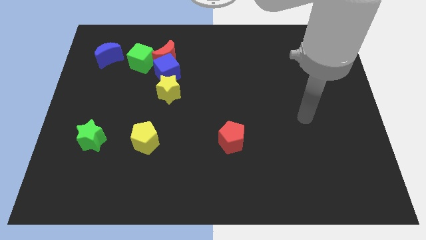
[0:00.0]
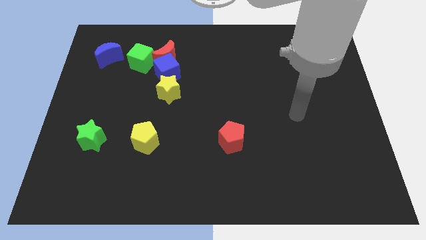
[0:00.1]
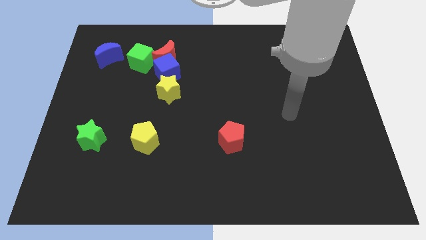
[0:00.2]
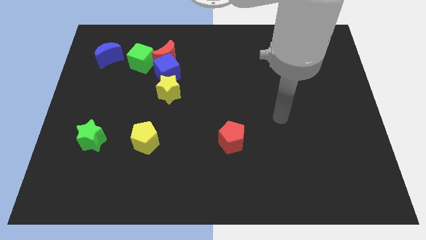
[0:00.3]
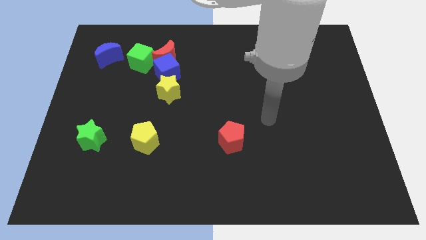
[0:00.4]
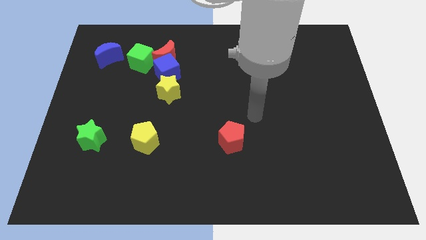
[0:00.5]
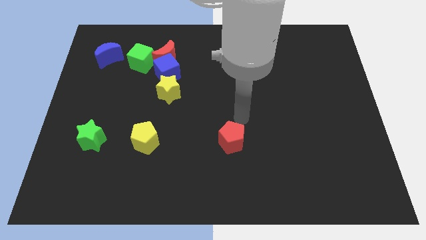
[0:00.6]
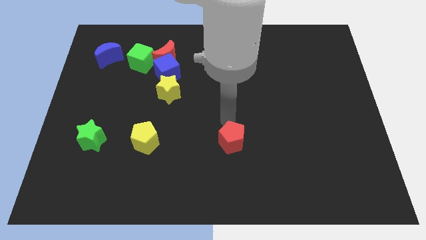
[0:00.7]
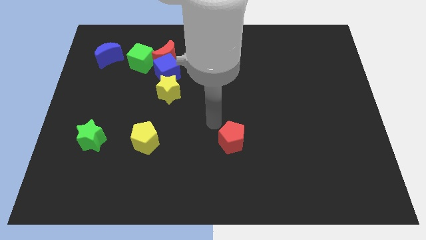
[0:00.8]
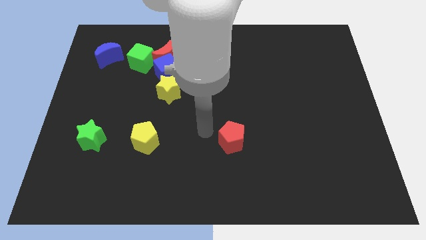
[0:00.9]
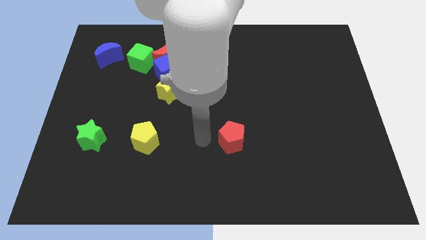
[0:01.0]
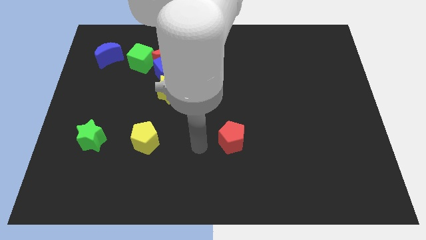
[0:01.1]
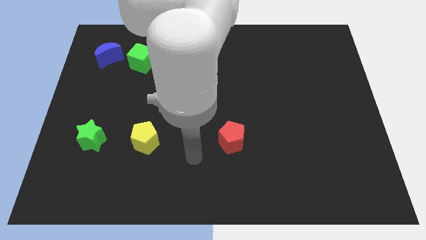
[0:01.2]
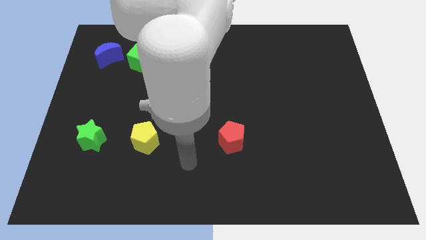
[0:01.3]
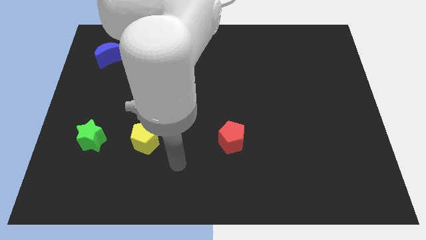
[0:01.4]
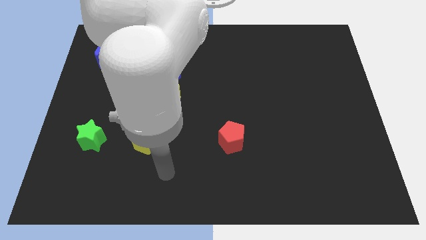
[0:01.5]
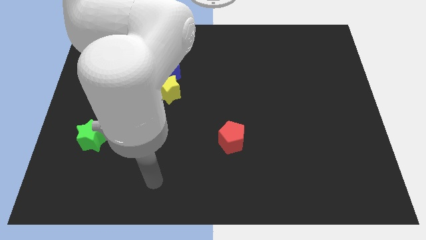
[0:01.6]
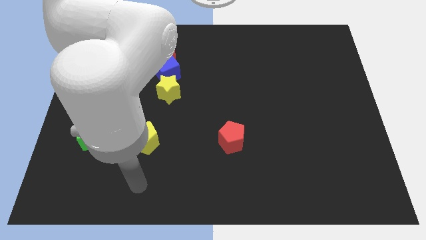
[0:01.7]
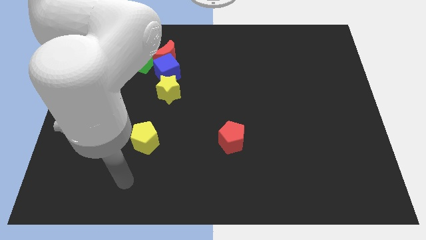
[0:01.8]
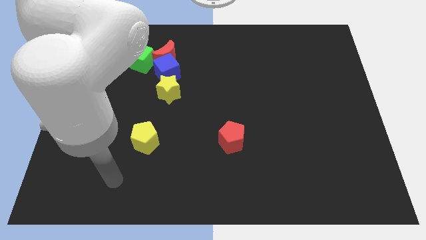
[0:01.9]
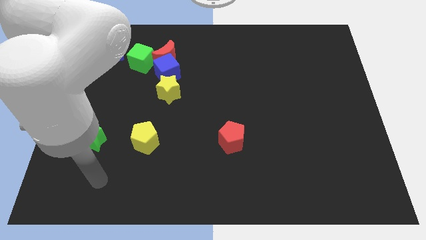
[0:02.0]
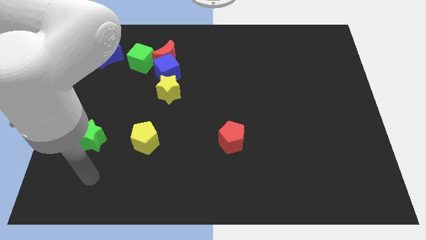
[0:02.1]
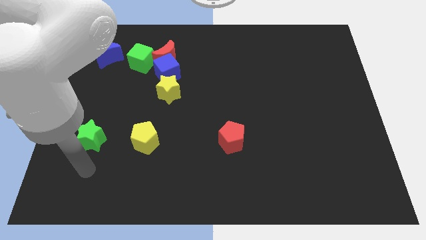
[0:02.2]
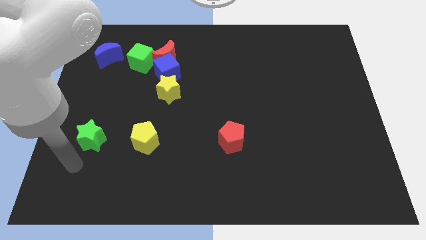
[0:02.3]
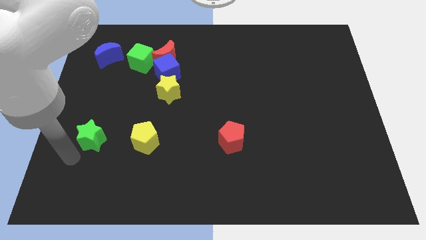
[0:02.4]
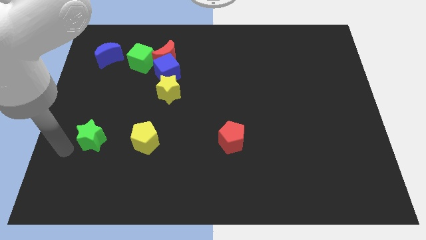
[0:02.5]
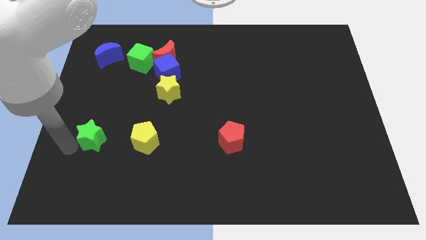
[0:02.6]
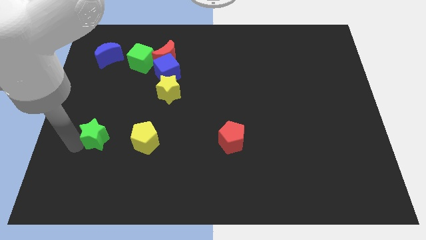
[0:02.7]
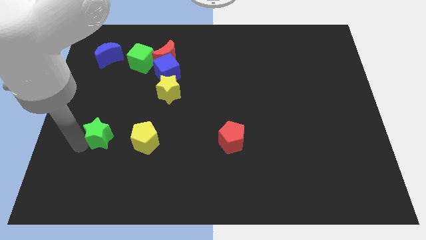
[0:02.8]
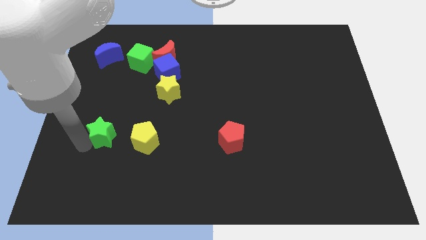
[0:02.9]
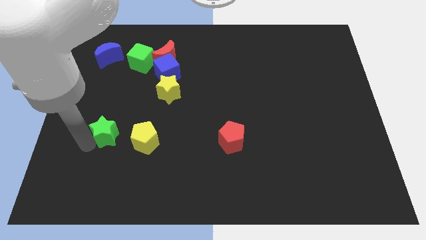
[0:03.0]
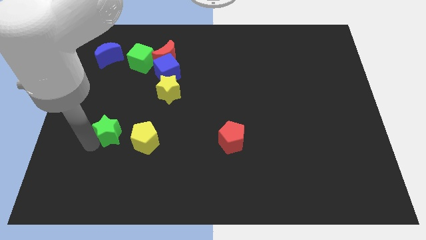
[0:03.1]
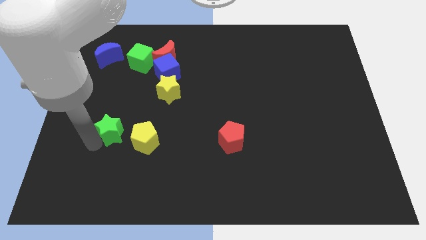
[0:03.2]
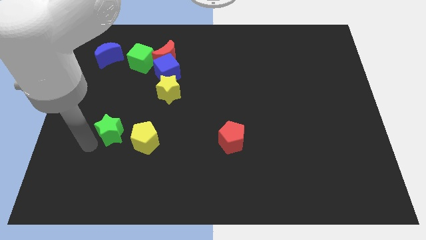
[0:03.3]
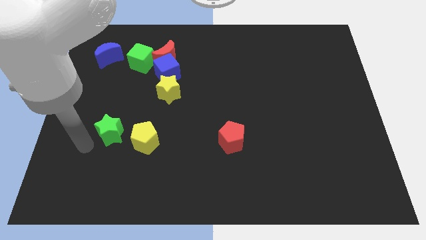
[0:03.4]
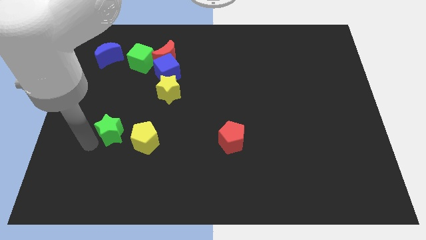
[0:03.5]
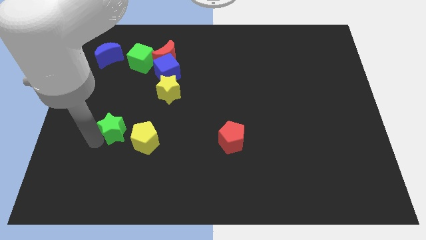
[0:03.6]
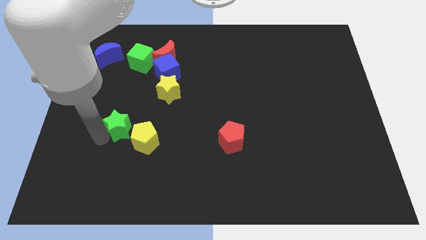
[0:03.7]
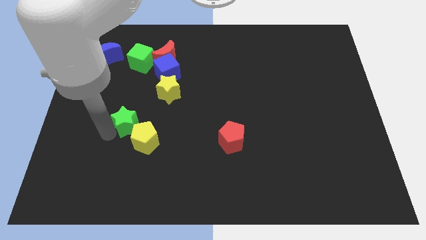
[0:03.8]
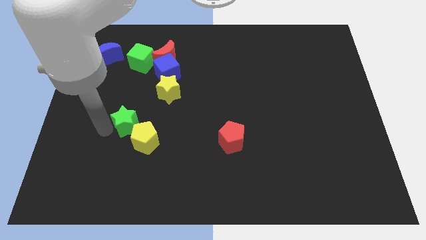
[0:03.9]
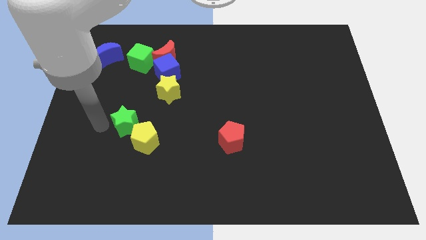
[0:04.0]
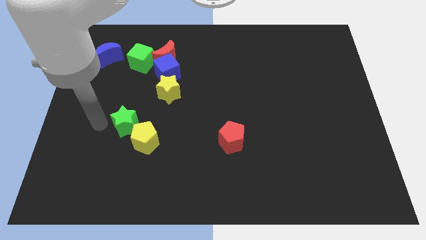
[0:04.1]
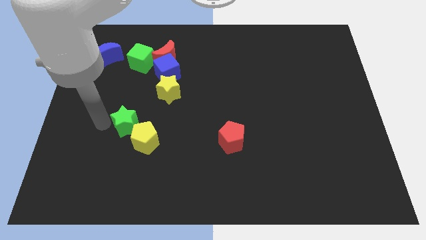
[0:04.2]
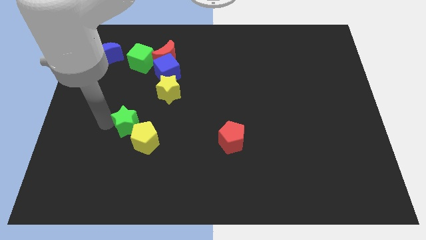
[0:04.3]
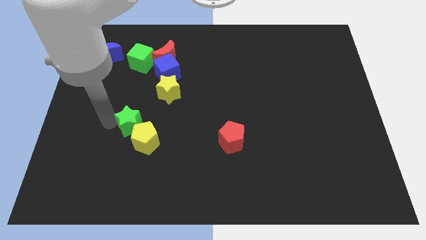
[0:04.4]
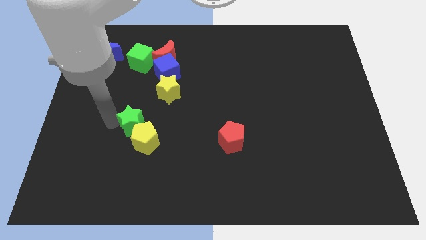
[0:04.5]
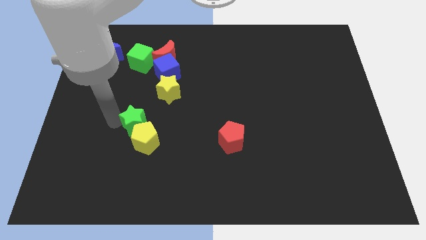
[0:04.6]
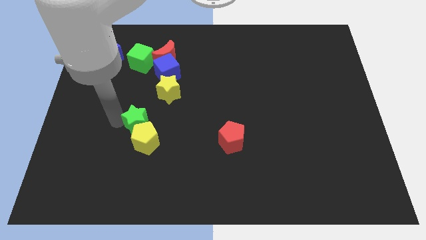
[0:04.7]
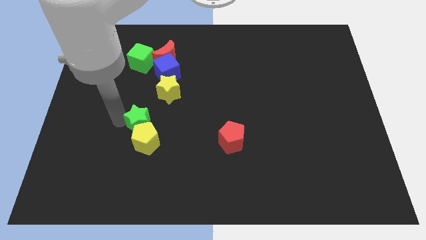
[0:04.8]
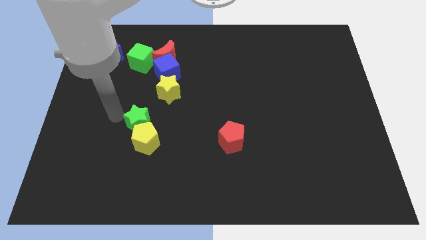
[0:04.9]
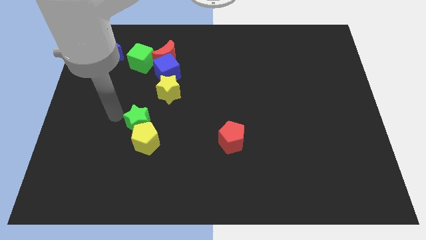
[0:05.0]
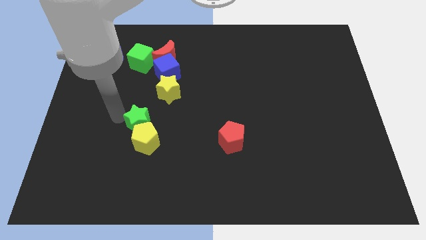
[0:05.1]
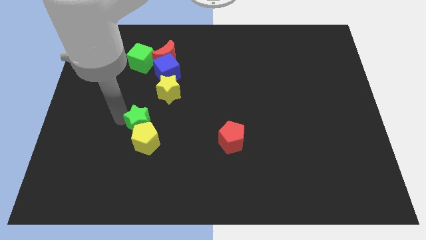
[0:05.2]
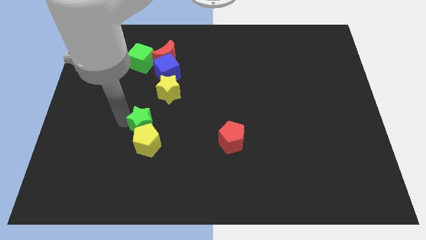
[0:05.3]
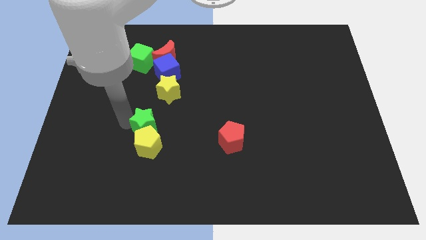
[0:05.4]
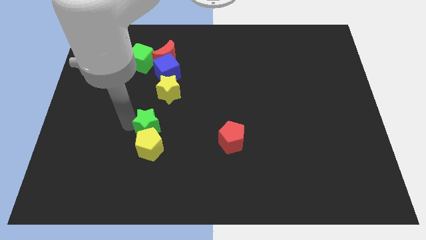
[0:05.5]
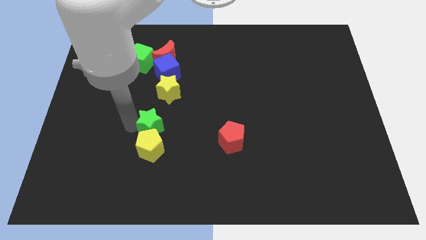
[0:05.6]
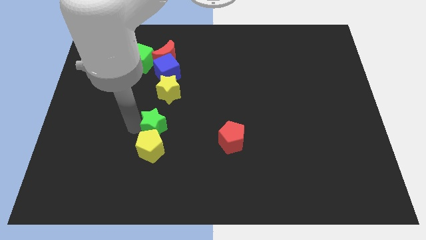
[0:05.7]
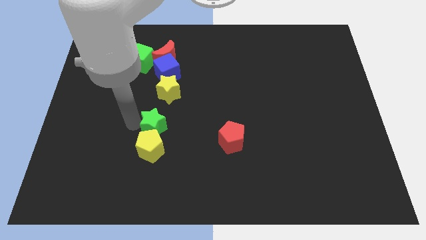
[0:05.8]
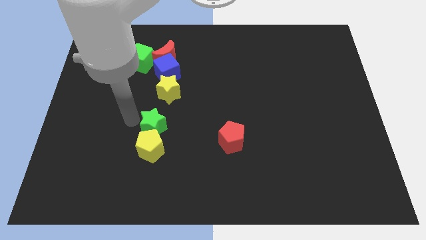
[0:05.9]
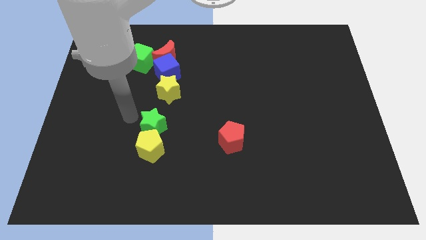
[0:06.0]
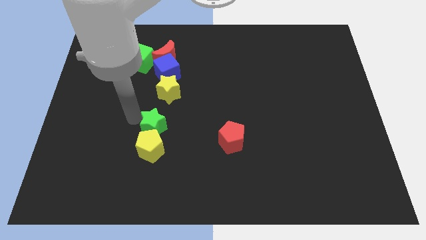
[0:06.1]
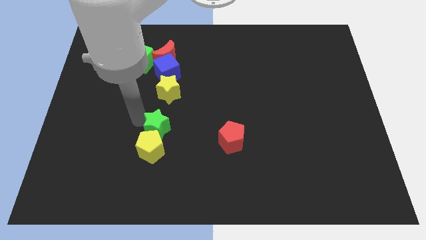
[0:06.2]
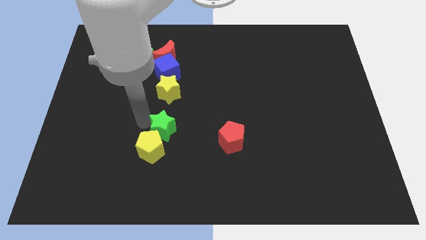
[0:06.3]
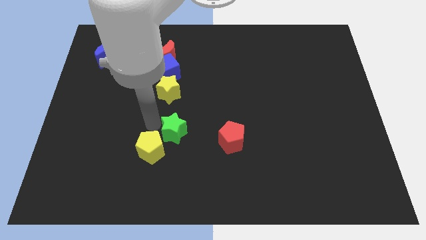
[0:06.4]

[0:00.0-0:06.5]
slide the green star just right of the yellow pentagon

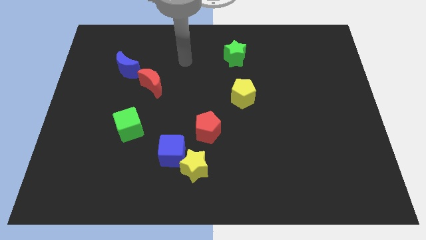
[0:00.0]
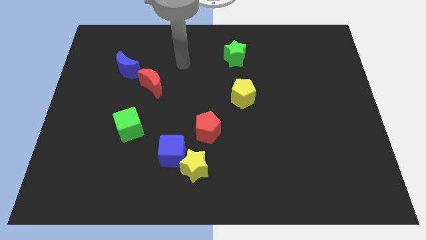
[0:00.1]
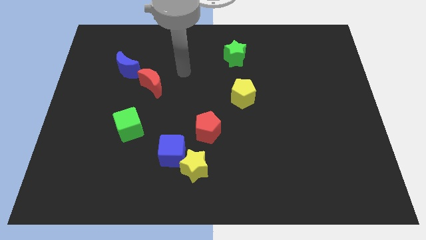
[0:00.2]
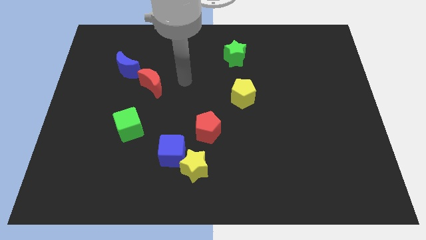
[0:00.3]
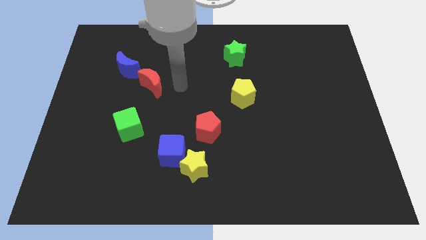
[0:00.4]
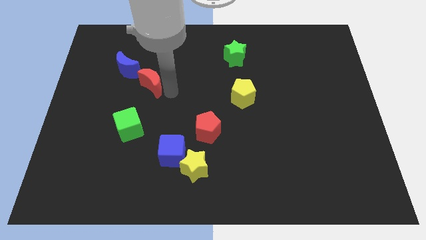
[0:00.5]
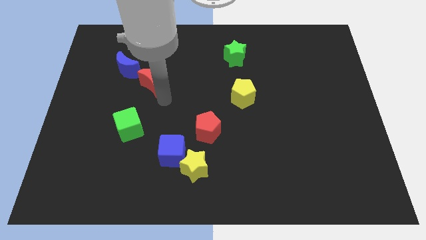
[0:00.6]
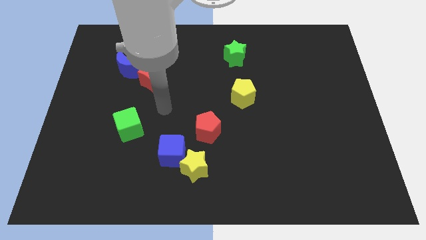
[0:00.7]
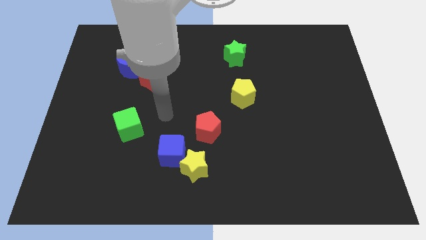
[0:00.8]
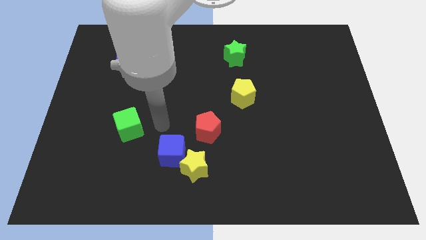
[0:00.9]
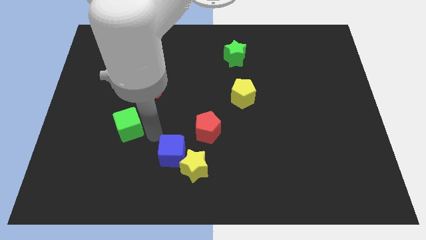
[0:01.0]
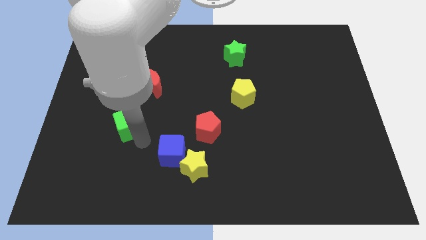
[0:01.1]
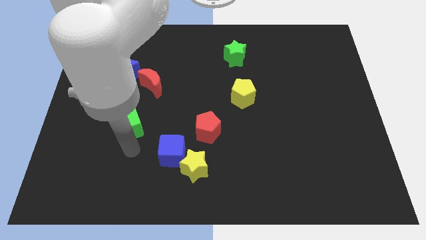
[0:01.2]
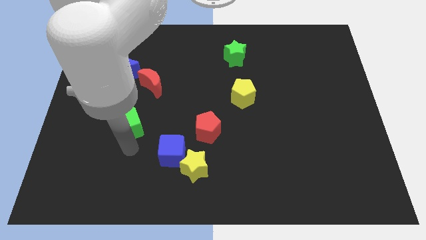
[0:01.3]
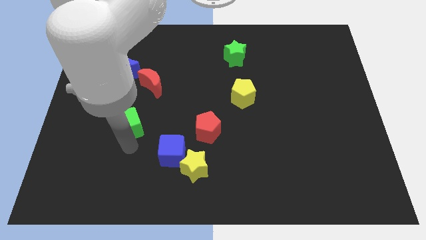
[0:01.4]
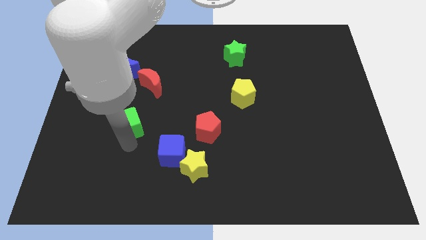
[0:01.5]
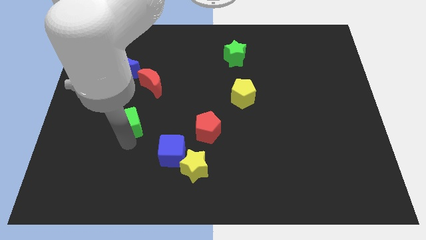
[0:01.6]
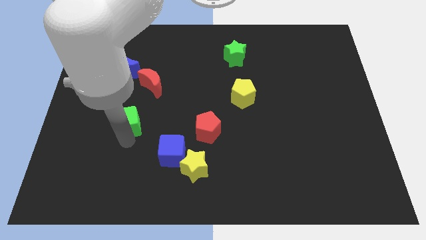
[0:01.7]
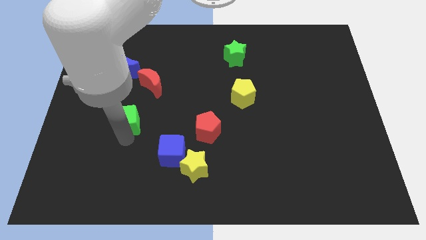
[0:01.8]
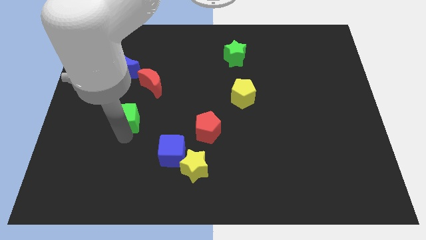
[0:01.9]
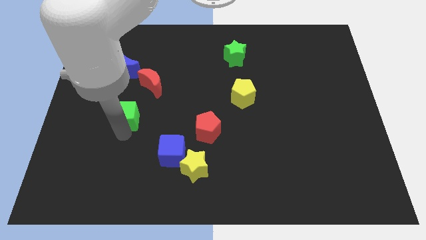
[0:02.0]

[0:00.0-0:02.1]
put the green cube diagonally down and to the left of the red moon
